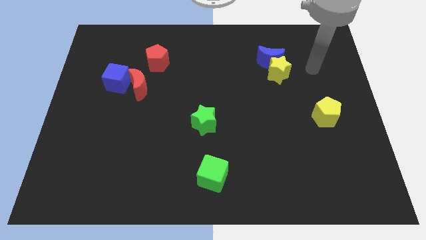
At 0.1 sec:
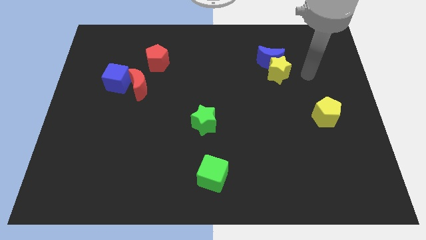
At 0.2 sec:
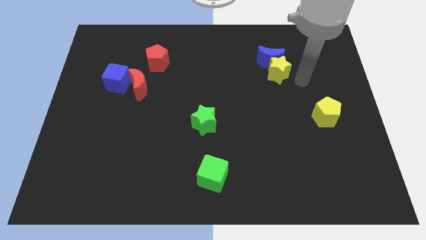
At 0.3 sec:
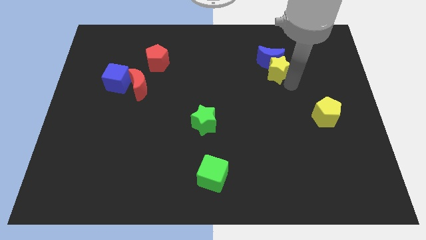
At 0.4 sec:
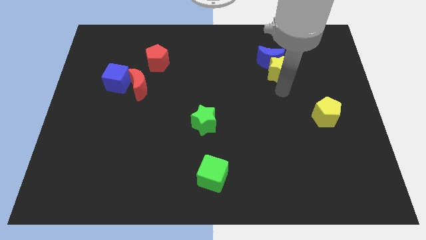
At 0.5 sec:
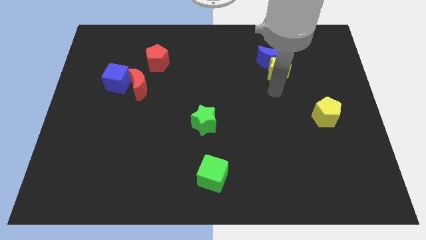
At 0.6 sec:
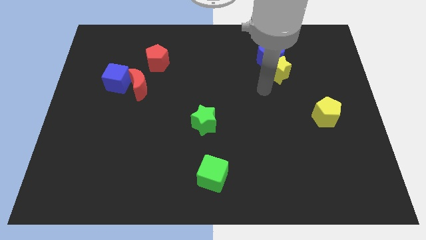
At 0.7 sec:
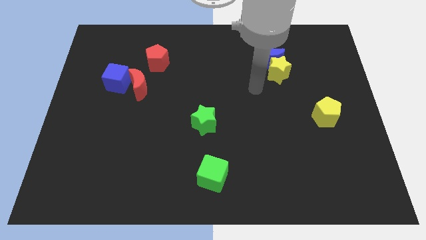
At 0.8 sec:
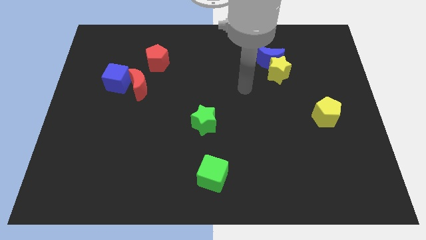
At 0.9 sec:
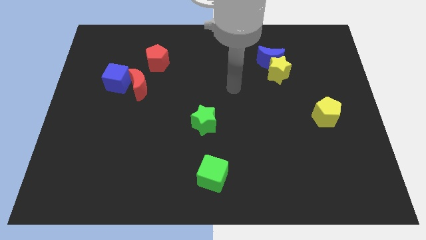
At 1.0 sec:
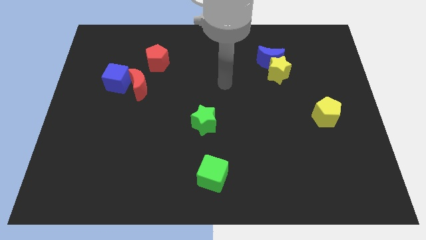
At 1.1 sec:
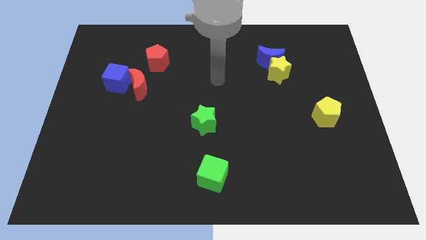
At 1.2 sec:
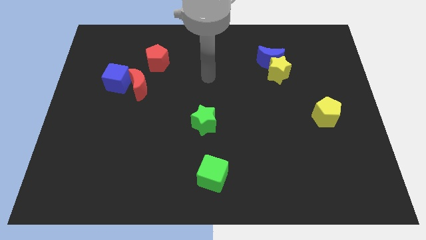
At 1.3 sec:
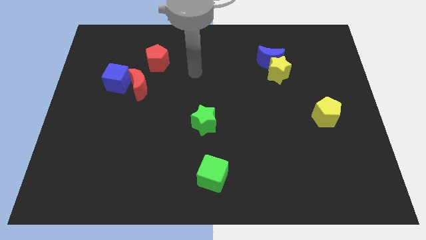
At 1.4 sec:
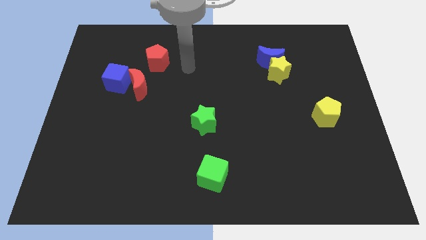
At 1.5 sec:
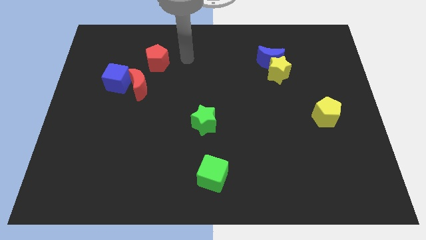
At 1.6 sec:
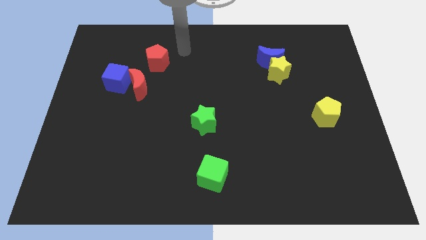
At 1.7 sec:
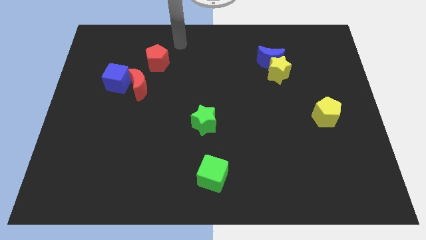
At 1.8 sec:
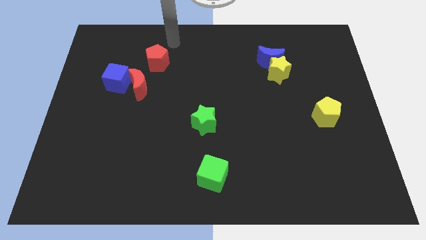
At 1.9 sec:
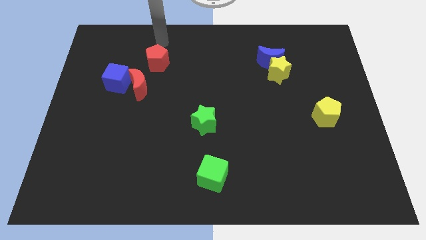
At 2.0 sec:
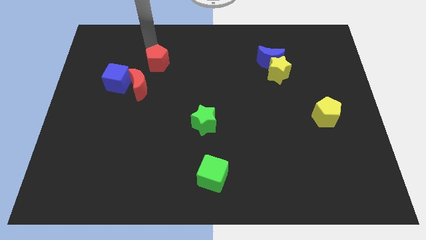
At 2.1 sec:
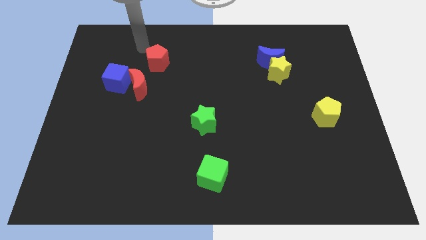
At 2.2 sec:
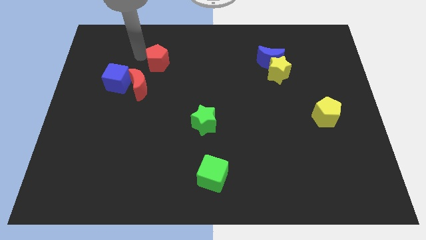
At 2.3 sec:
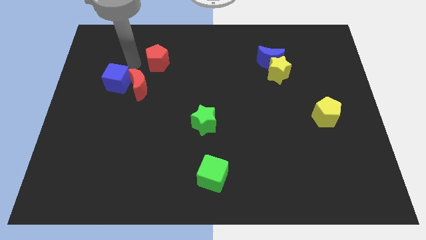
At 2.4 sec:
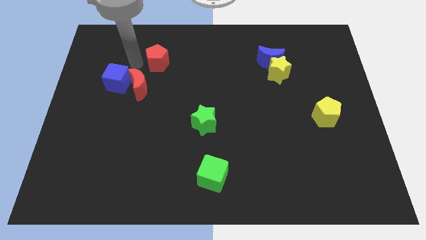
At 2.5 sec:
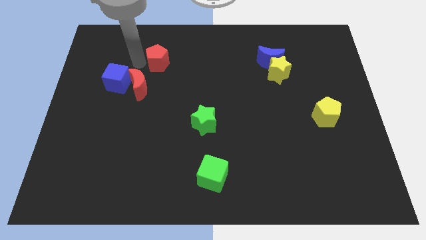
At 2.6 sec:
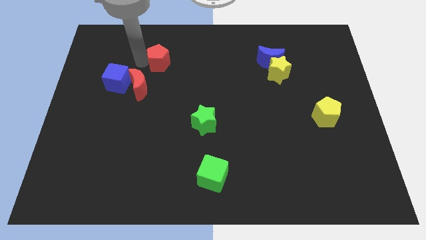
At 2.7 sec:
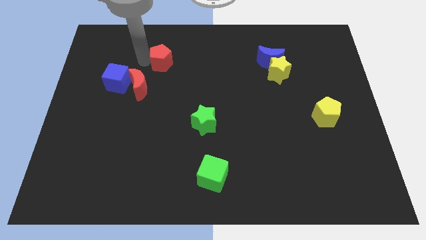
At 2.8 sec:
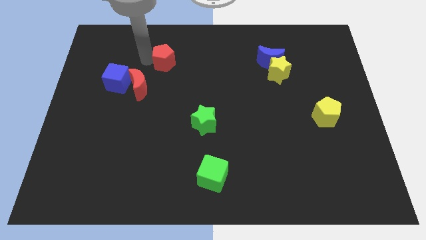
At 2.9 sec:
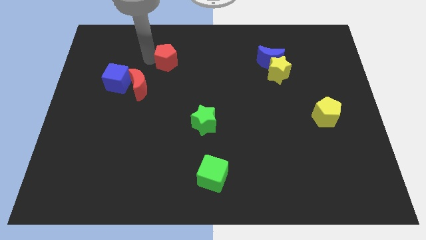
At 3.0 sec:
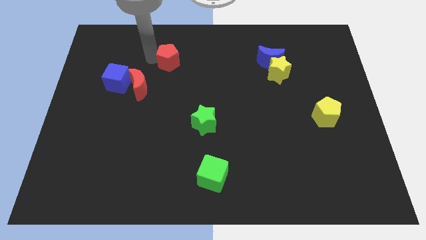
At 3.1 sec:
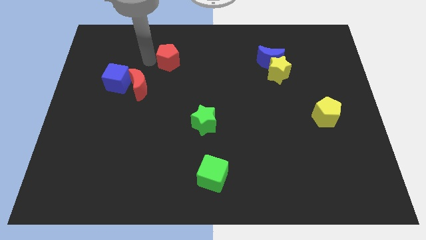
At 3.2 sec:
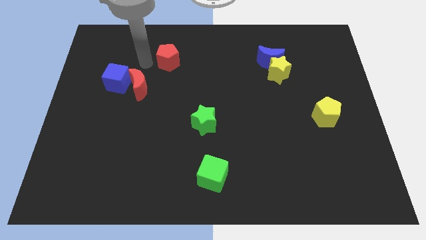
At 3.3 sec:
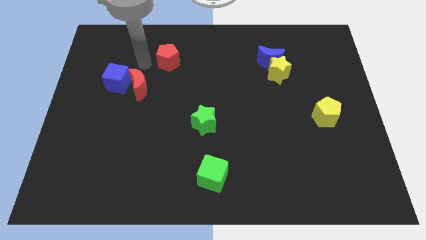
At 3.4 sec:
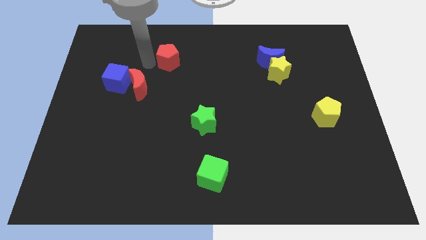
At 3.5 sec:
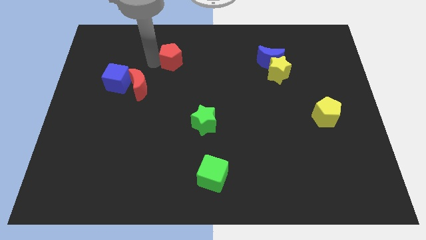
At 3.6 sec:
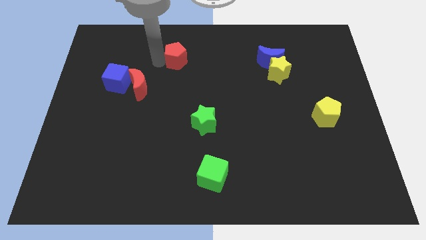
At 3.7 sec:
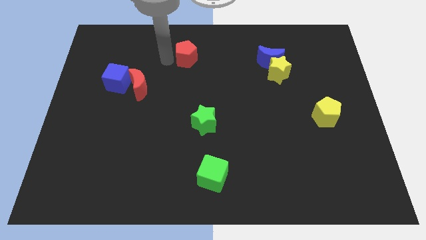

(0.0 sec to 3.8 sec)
slightly push the red pentagon to the right

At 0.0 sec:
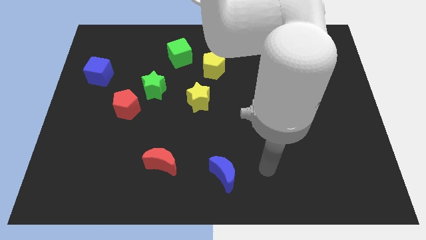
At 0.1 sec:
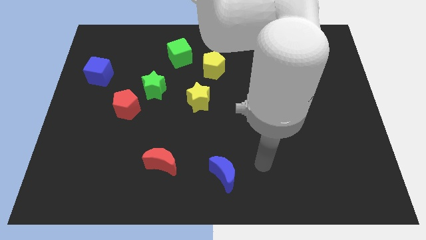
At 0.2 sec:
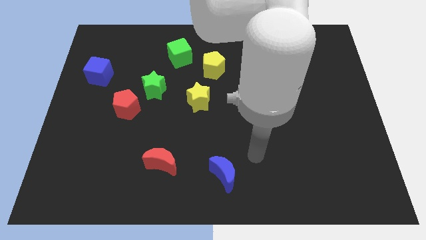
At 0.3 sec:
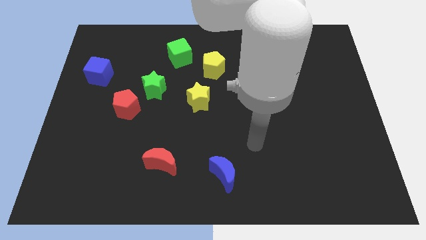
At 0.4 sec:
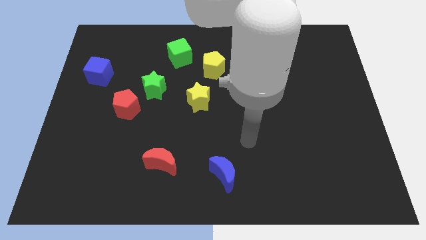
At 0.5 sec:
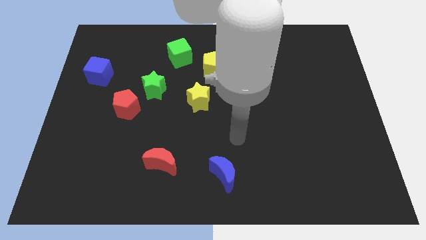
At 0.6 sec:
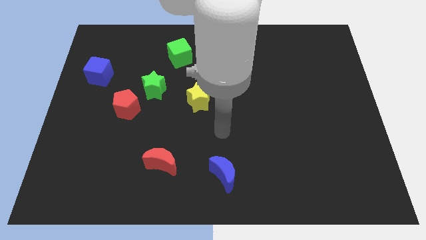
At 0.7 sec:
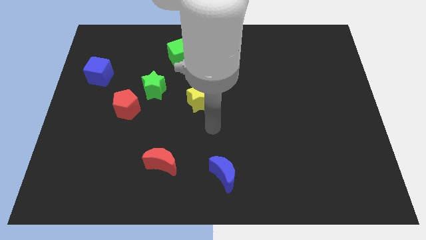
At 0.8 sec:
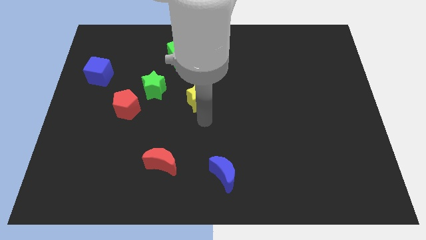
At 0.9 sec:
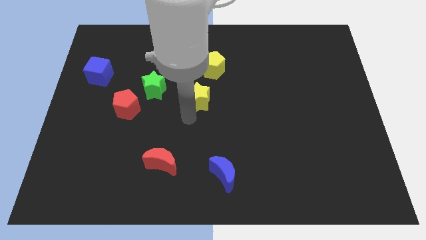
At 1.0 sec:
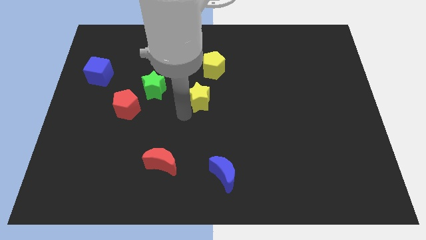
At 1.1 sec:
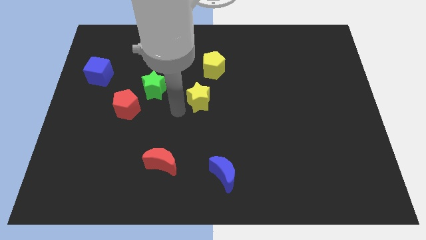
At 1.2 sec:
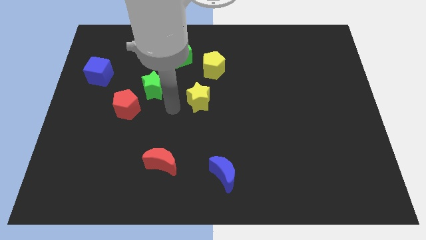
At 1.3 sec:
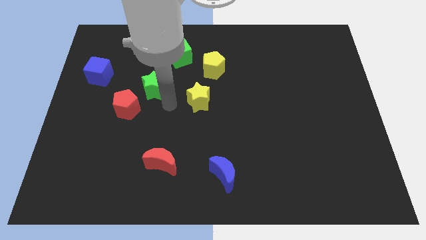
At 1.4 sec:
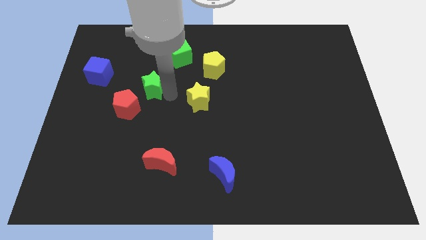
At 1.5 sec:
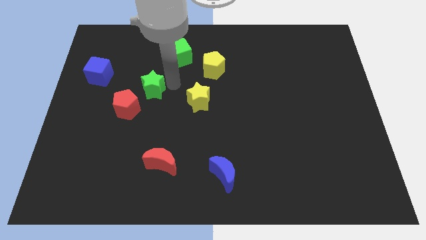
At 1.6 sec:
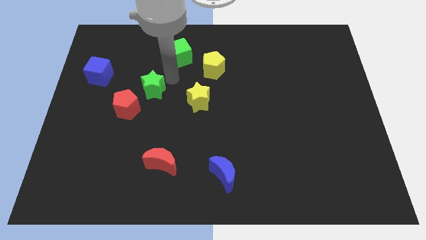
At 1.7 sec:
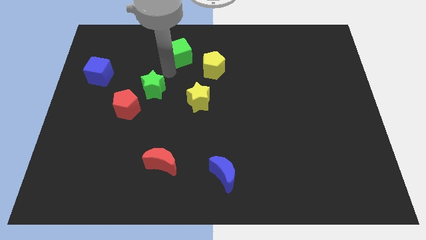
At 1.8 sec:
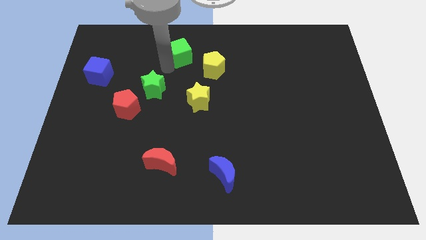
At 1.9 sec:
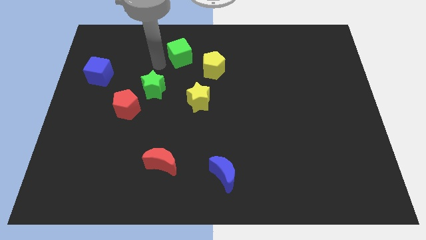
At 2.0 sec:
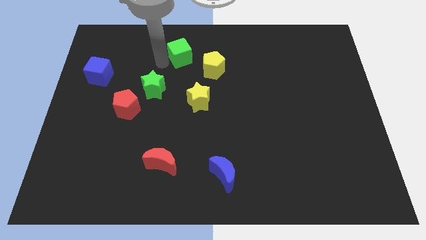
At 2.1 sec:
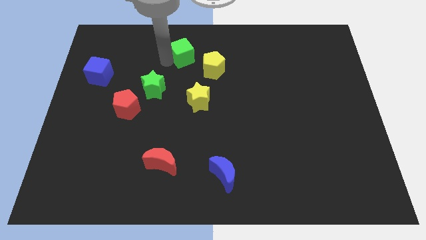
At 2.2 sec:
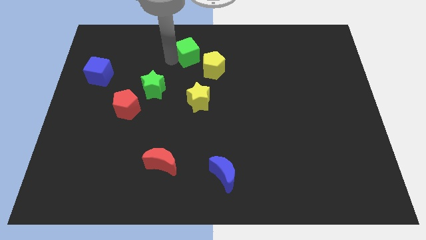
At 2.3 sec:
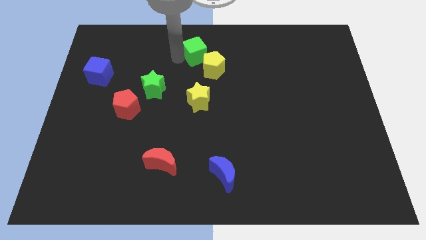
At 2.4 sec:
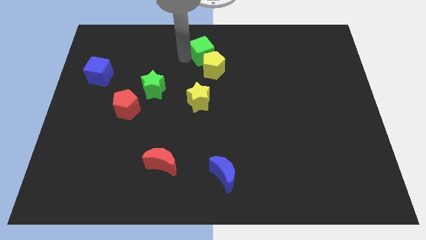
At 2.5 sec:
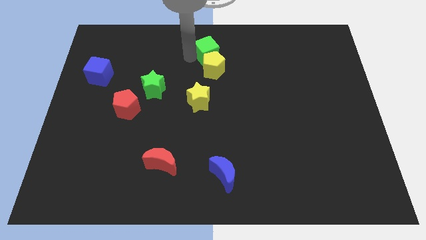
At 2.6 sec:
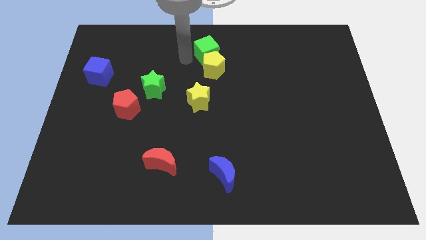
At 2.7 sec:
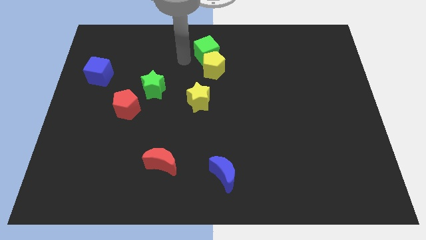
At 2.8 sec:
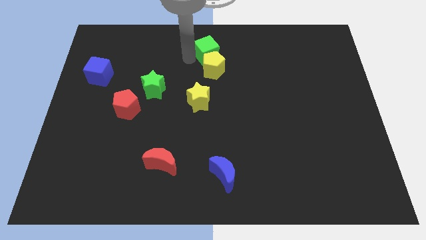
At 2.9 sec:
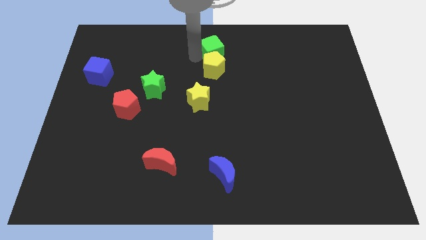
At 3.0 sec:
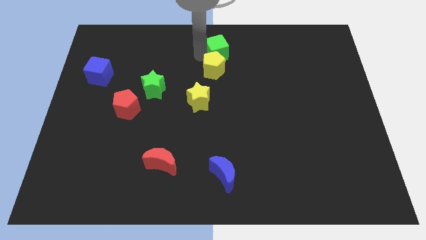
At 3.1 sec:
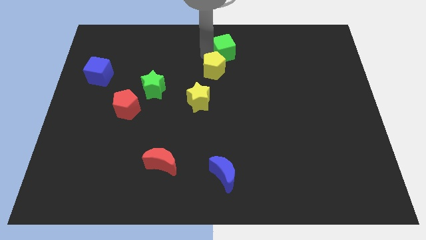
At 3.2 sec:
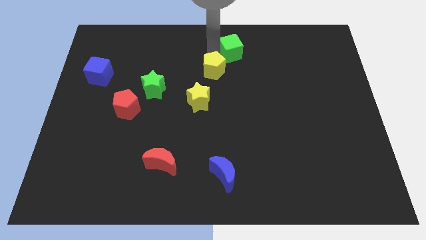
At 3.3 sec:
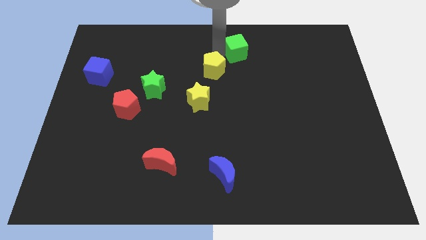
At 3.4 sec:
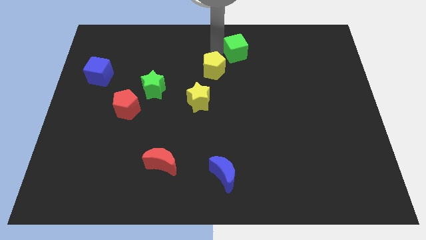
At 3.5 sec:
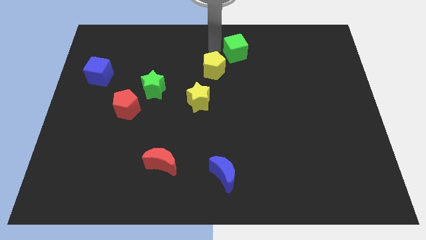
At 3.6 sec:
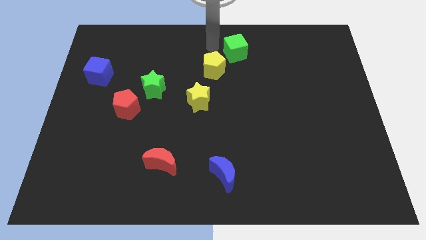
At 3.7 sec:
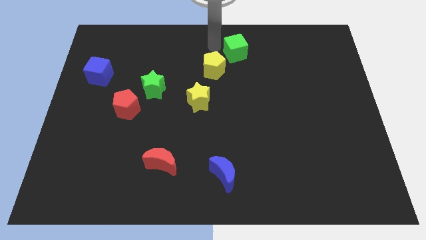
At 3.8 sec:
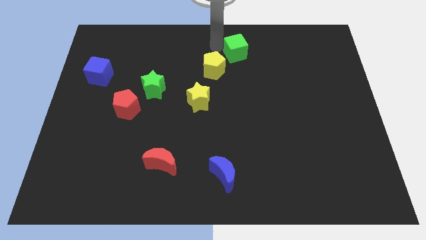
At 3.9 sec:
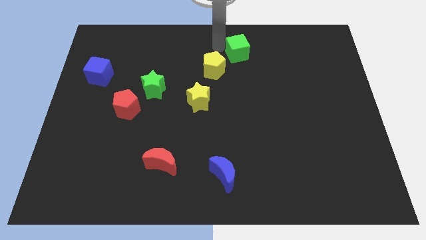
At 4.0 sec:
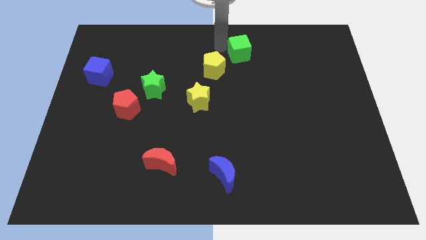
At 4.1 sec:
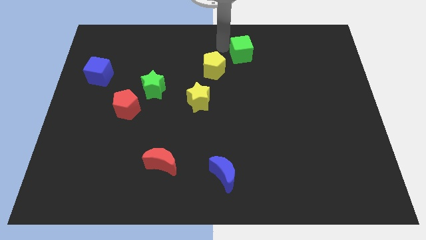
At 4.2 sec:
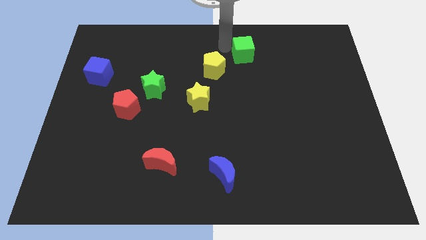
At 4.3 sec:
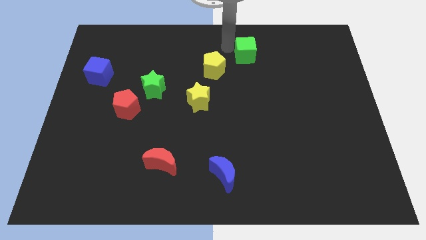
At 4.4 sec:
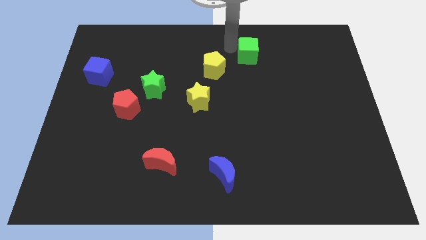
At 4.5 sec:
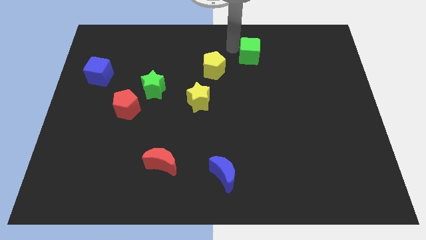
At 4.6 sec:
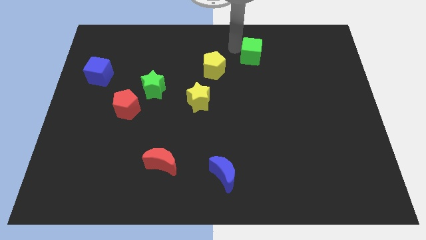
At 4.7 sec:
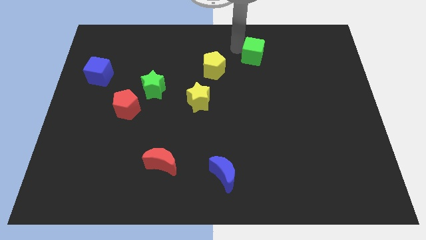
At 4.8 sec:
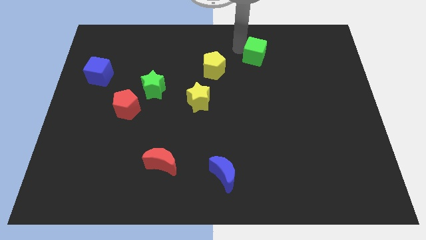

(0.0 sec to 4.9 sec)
slide the green cube to the right
